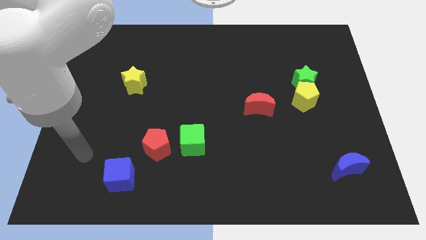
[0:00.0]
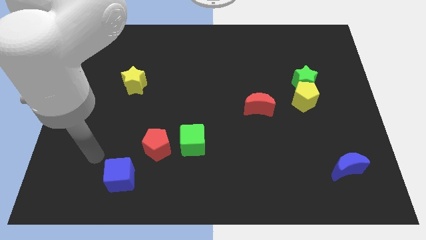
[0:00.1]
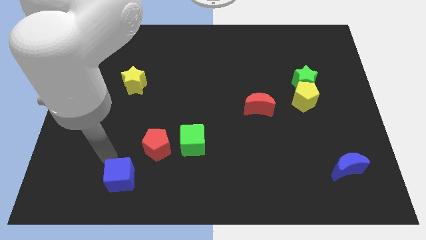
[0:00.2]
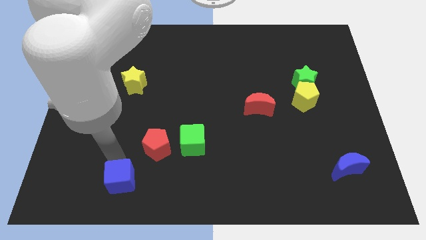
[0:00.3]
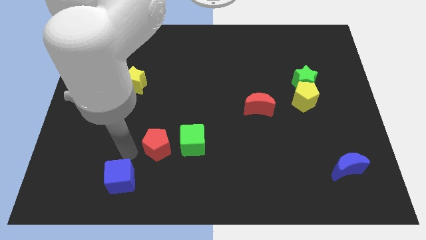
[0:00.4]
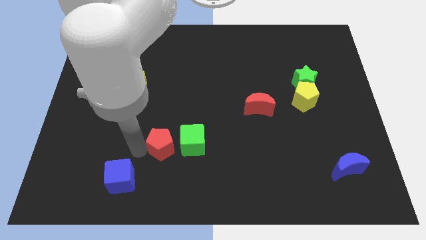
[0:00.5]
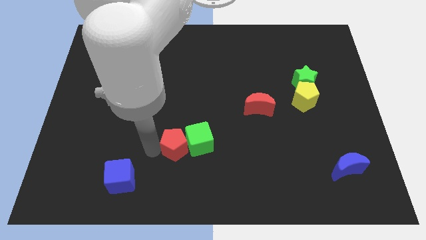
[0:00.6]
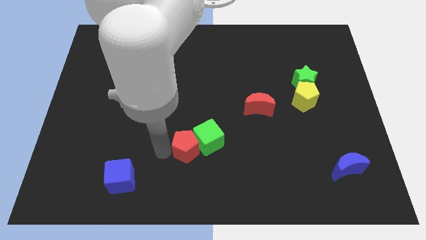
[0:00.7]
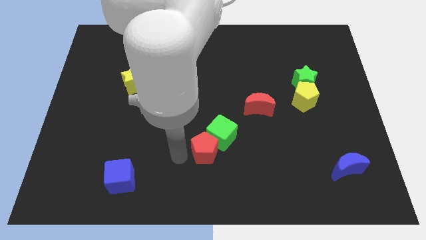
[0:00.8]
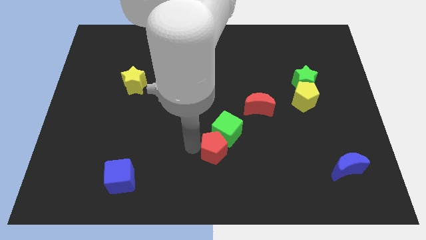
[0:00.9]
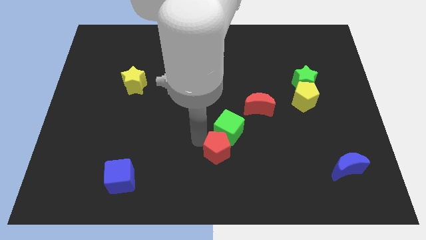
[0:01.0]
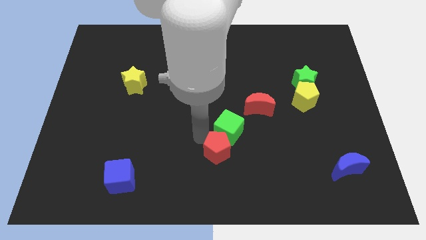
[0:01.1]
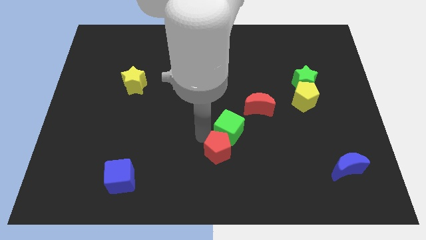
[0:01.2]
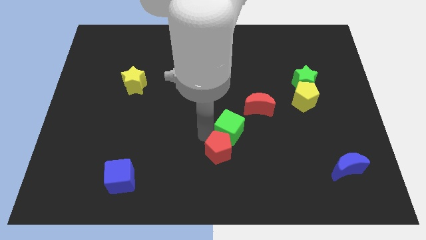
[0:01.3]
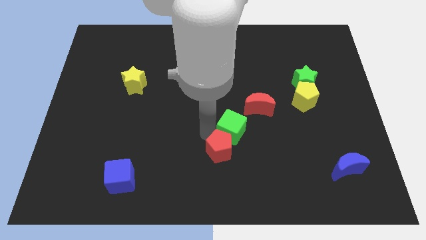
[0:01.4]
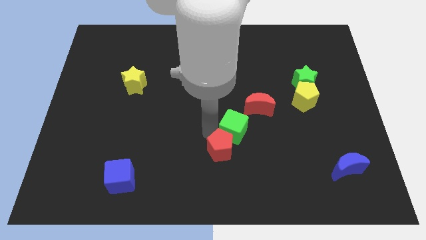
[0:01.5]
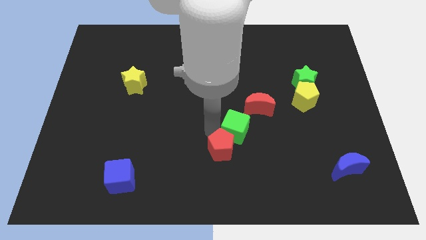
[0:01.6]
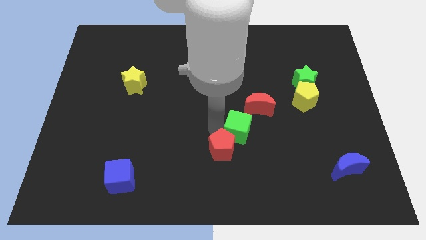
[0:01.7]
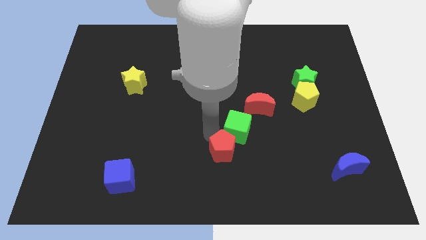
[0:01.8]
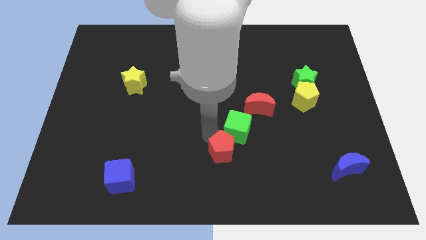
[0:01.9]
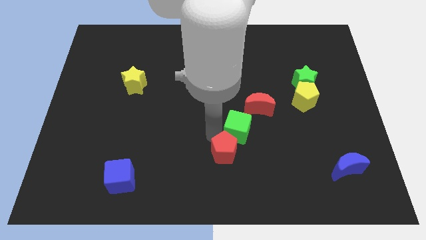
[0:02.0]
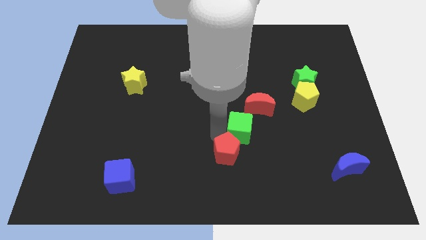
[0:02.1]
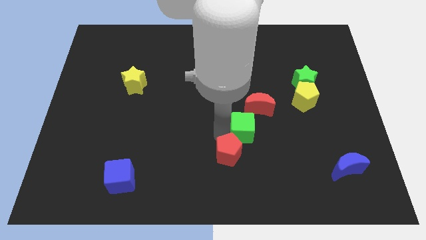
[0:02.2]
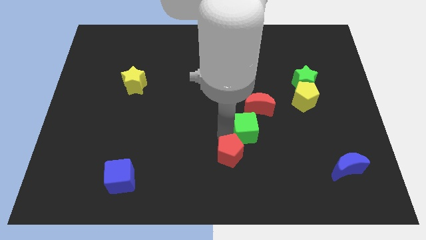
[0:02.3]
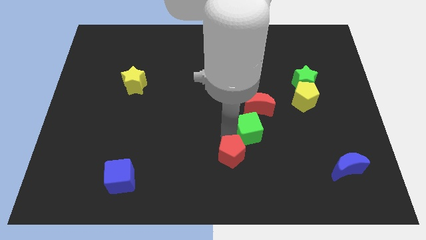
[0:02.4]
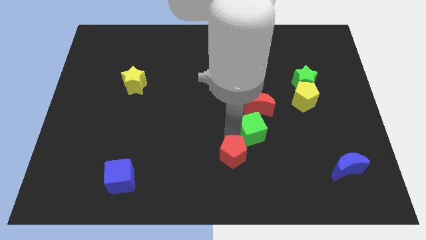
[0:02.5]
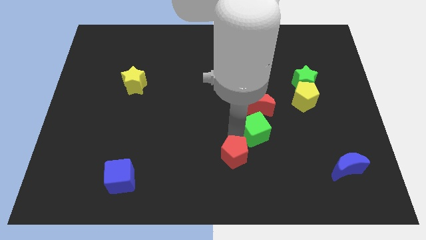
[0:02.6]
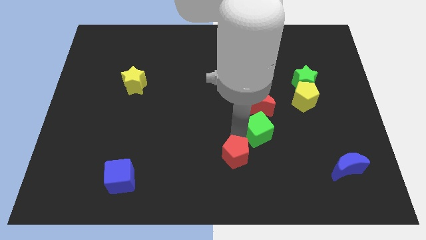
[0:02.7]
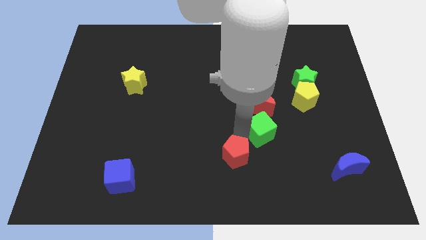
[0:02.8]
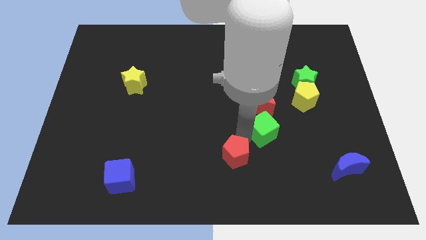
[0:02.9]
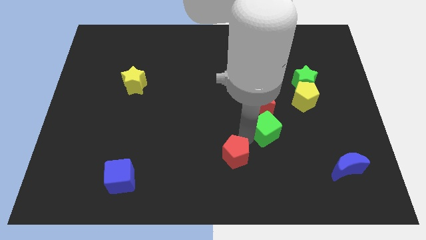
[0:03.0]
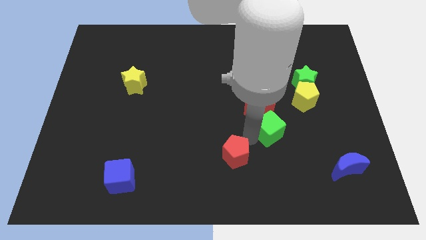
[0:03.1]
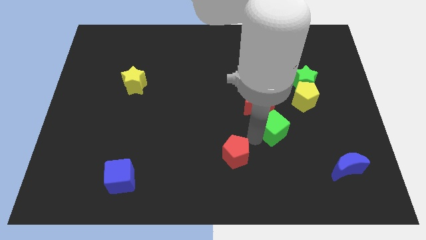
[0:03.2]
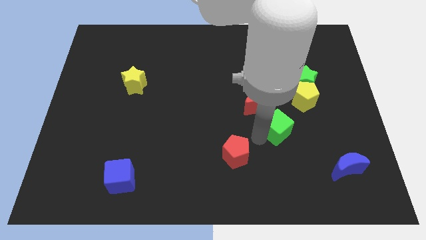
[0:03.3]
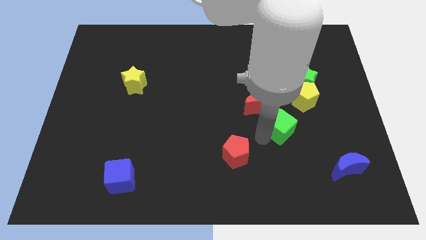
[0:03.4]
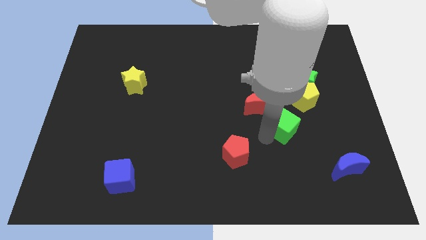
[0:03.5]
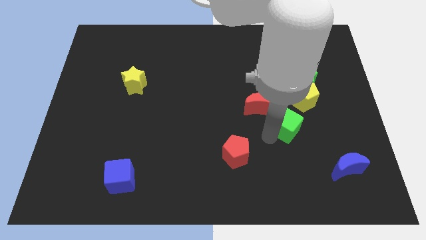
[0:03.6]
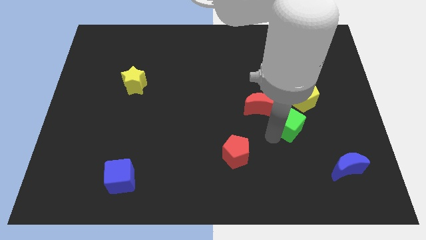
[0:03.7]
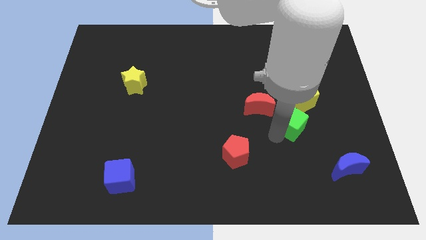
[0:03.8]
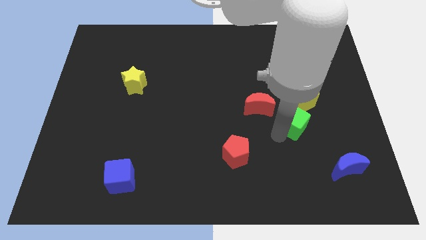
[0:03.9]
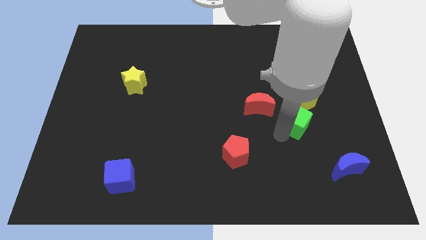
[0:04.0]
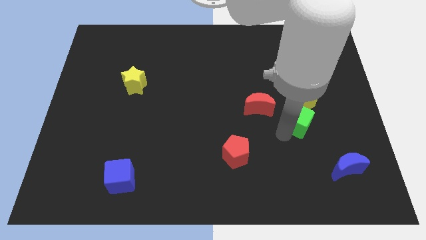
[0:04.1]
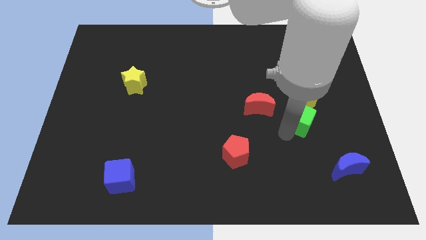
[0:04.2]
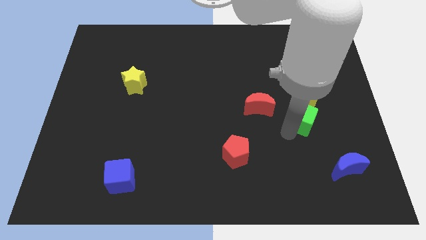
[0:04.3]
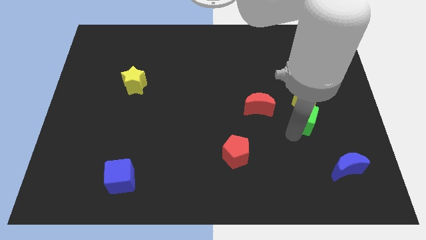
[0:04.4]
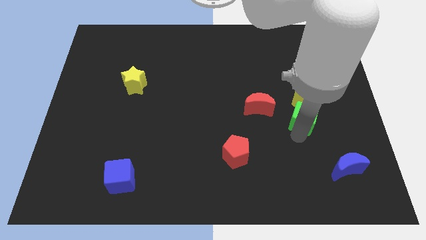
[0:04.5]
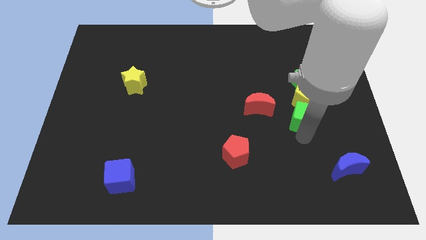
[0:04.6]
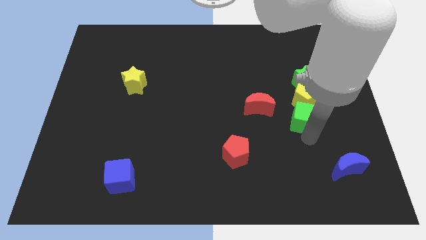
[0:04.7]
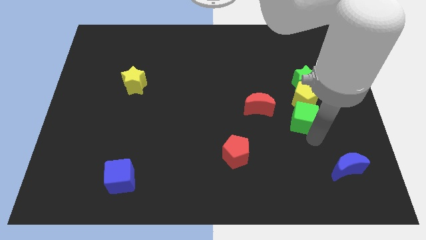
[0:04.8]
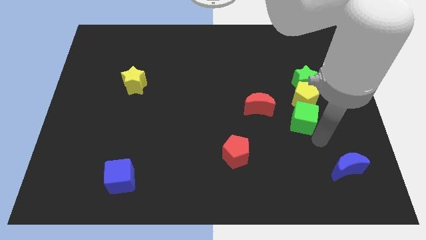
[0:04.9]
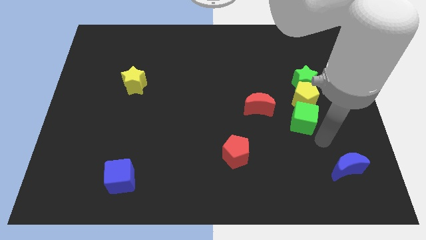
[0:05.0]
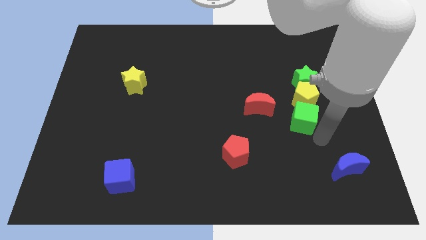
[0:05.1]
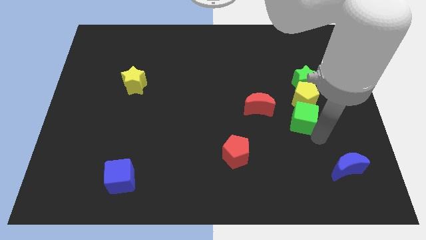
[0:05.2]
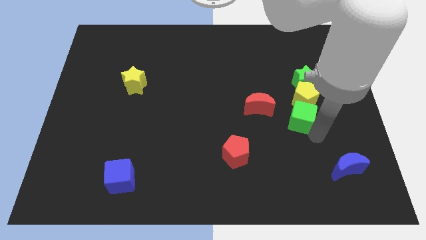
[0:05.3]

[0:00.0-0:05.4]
put the green cube next to the yellow pentagon
